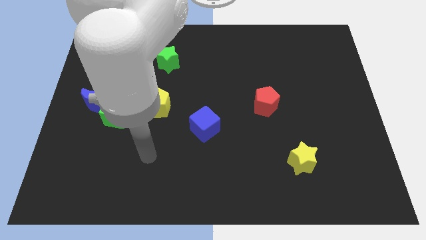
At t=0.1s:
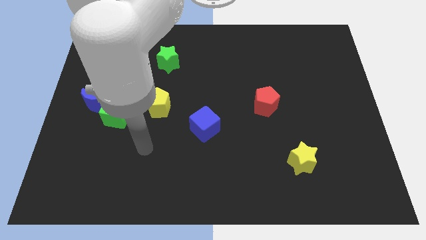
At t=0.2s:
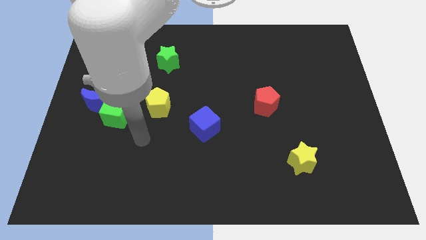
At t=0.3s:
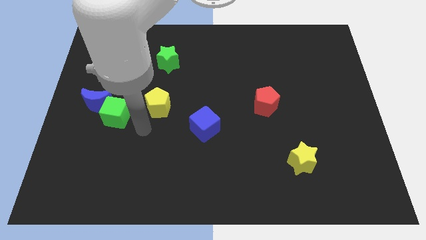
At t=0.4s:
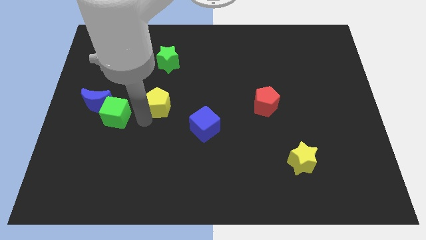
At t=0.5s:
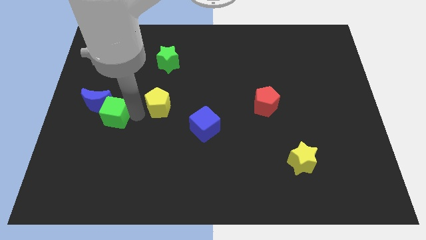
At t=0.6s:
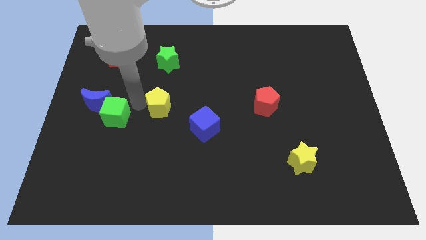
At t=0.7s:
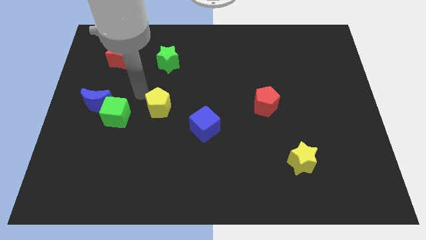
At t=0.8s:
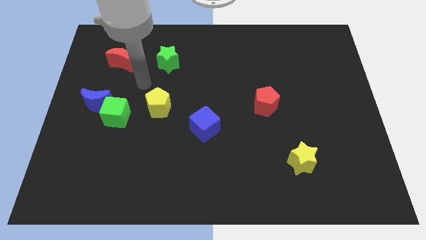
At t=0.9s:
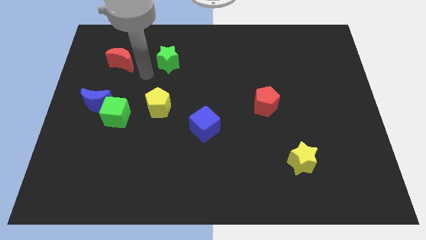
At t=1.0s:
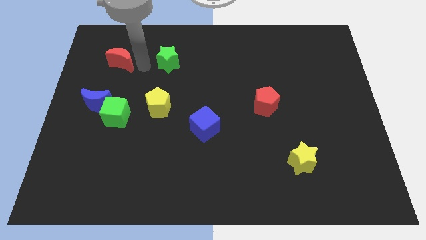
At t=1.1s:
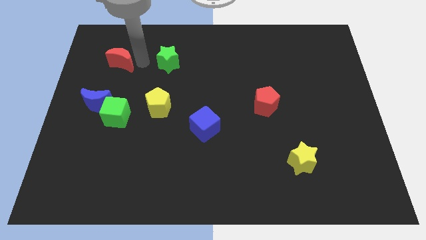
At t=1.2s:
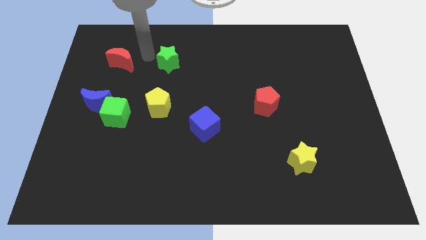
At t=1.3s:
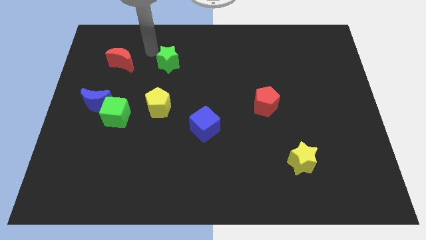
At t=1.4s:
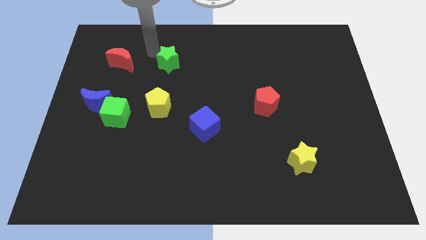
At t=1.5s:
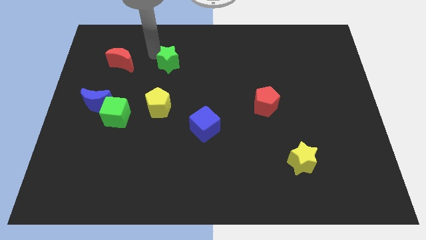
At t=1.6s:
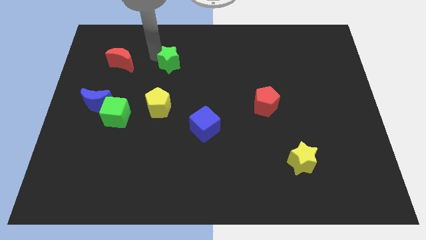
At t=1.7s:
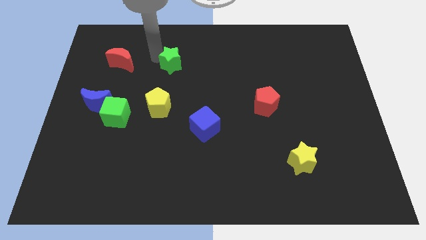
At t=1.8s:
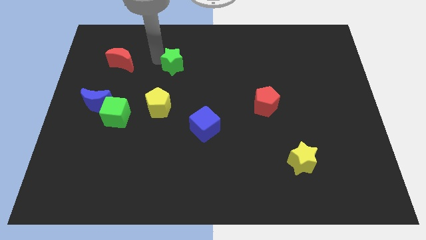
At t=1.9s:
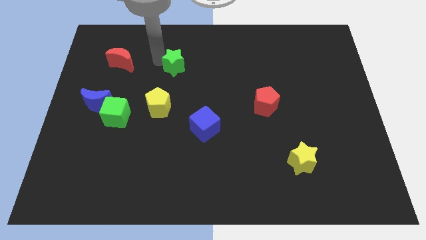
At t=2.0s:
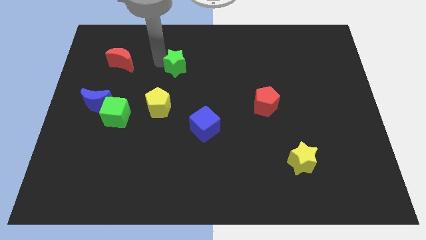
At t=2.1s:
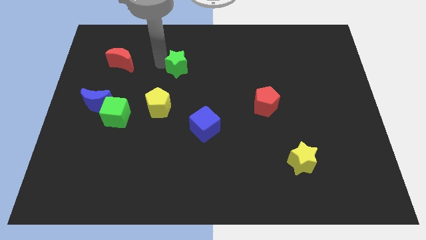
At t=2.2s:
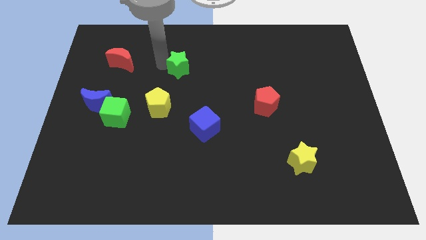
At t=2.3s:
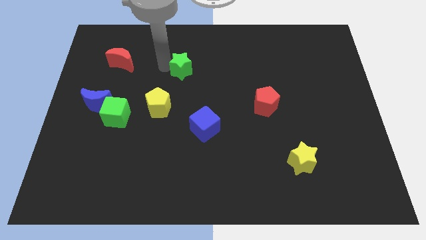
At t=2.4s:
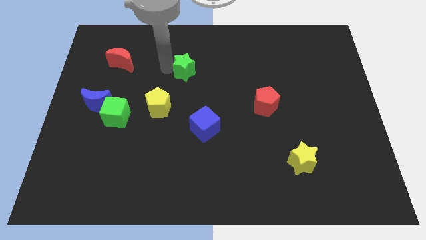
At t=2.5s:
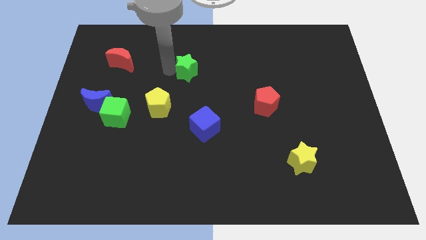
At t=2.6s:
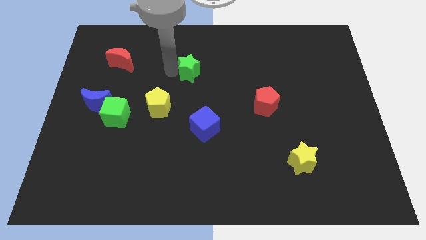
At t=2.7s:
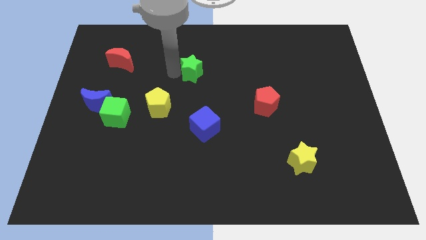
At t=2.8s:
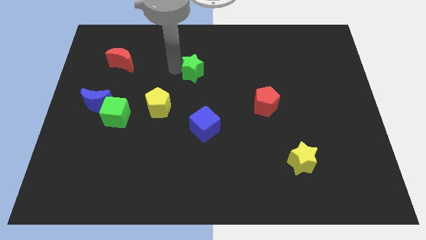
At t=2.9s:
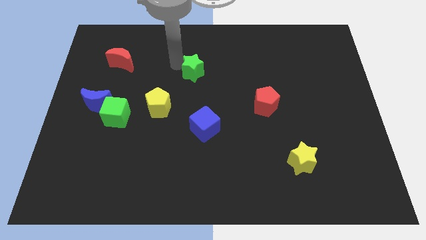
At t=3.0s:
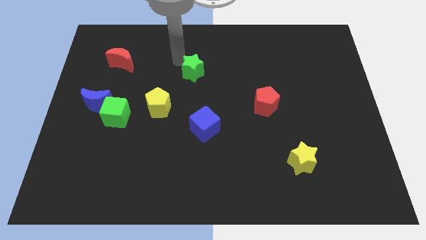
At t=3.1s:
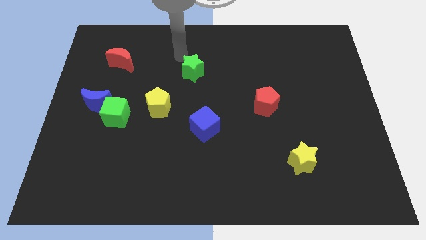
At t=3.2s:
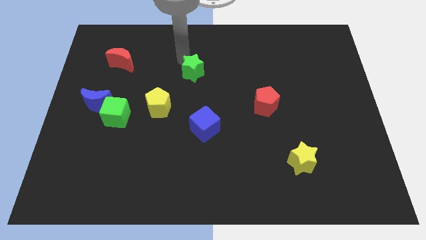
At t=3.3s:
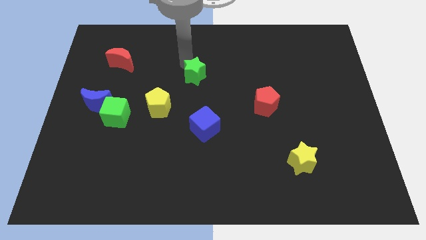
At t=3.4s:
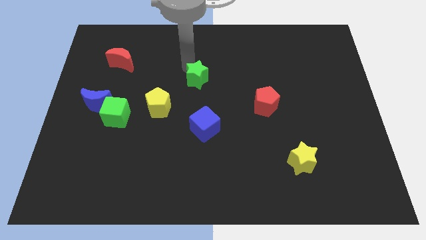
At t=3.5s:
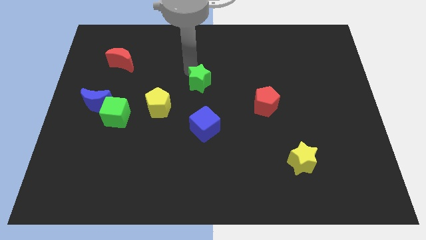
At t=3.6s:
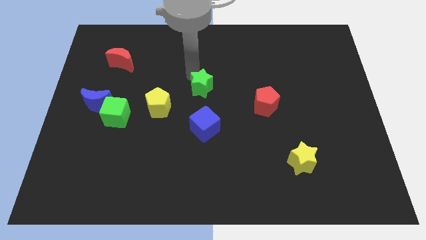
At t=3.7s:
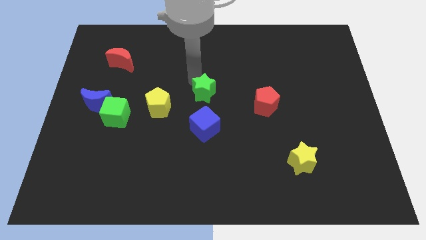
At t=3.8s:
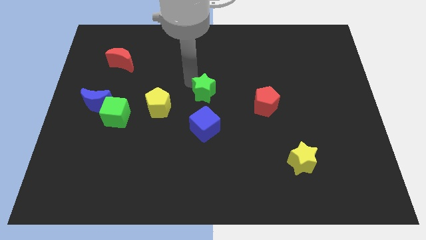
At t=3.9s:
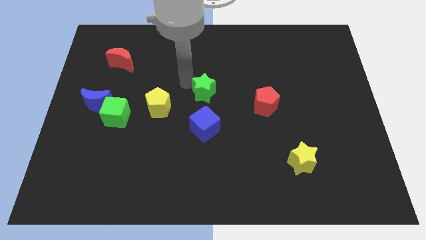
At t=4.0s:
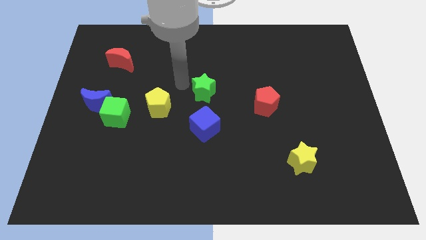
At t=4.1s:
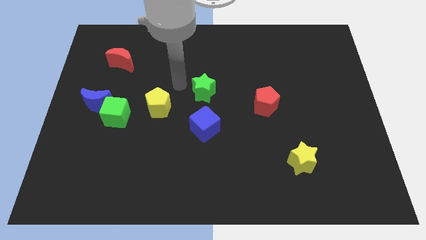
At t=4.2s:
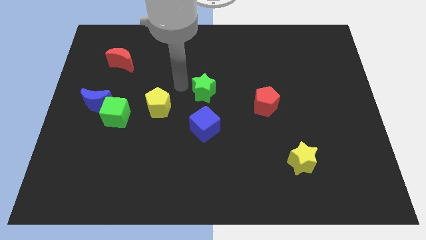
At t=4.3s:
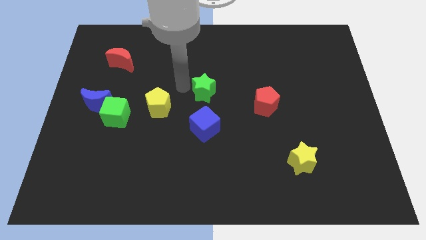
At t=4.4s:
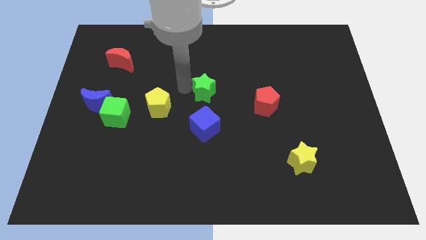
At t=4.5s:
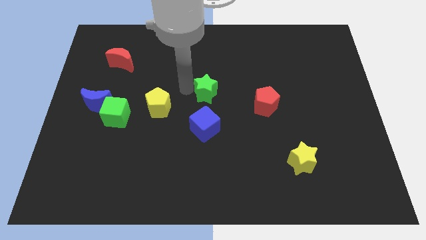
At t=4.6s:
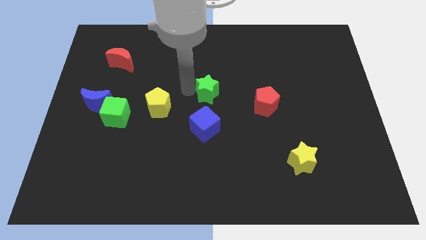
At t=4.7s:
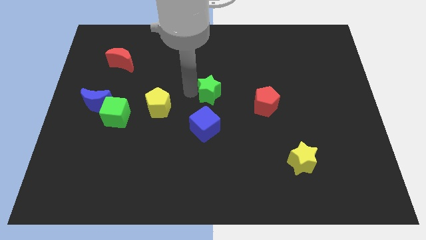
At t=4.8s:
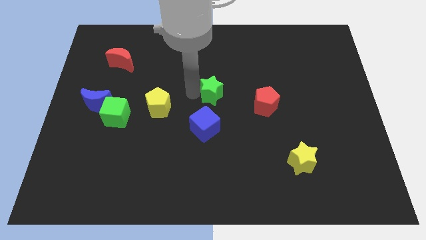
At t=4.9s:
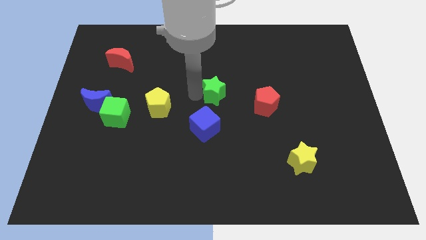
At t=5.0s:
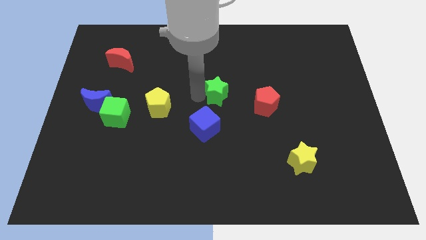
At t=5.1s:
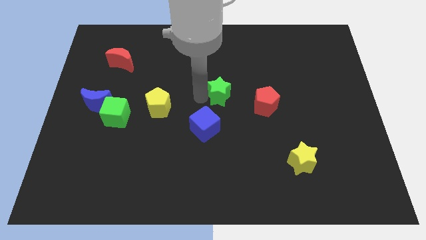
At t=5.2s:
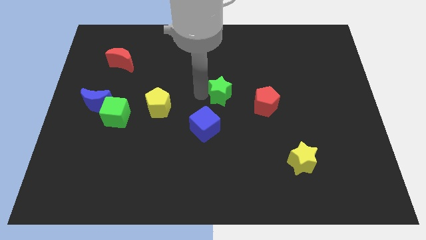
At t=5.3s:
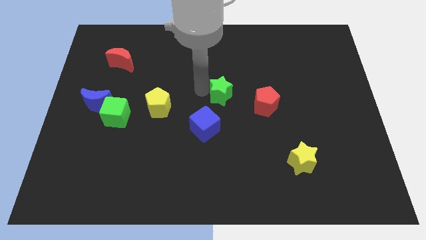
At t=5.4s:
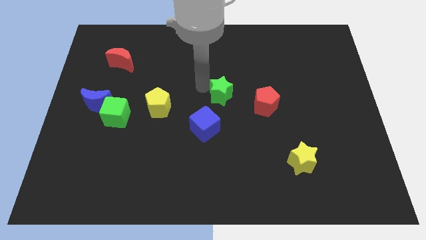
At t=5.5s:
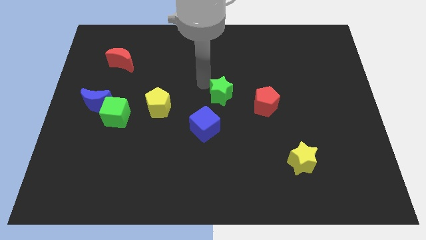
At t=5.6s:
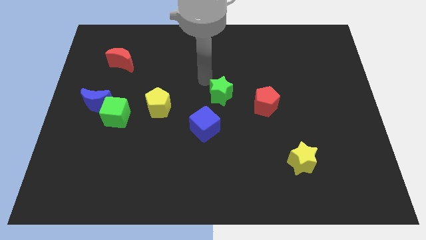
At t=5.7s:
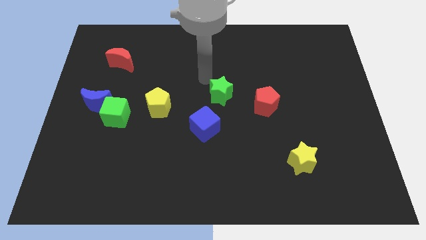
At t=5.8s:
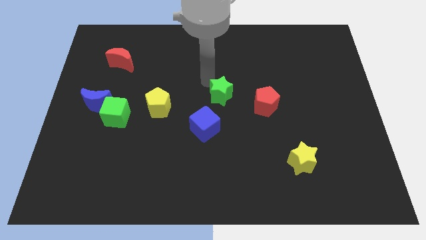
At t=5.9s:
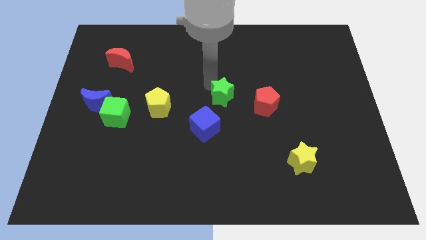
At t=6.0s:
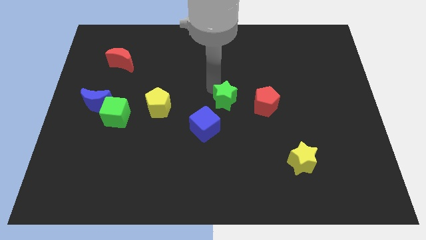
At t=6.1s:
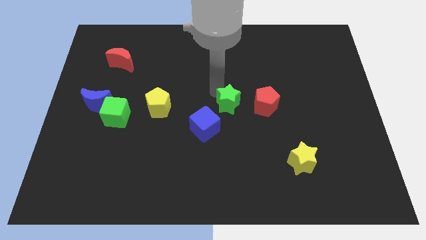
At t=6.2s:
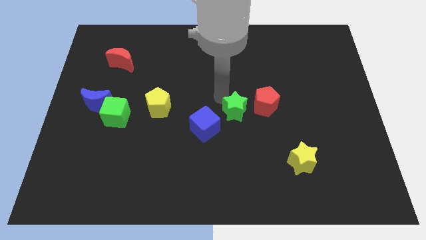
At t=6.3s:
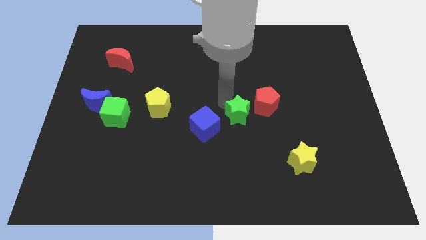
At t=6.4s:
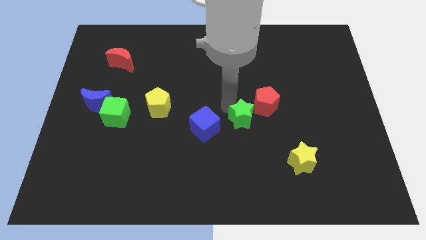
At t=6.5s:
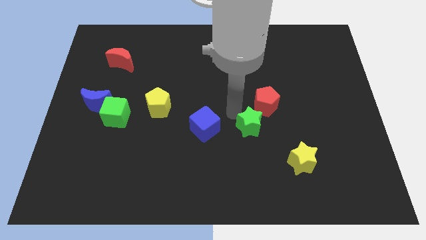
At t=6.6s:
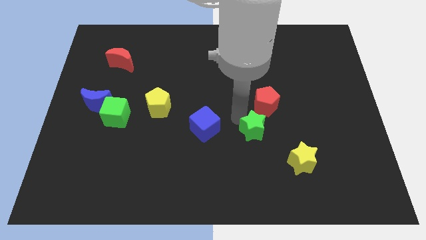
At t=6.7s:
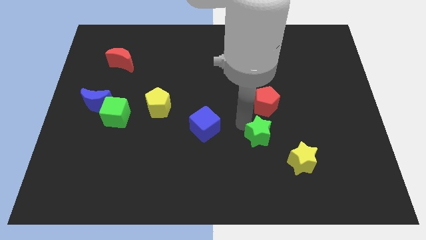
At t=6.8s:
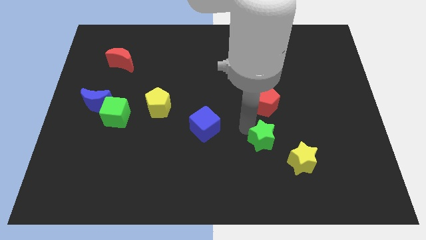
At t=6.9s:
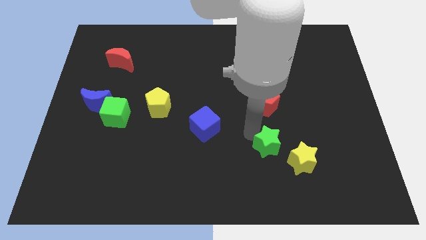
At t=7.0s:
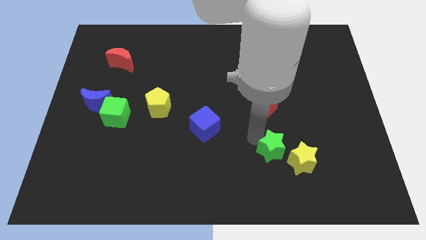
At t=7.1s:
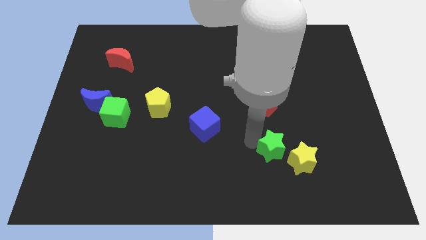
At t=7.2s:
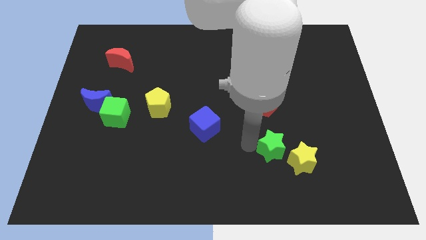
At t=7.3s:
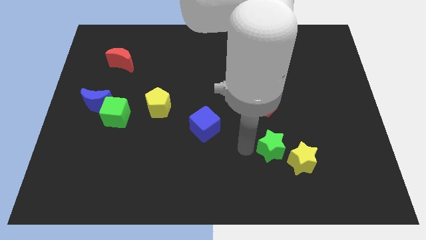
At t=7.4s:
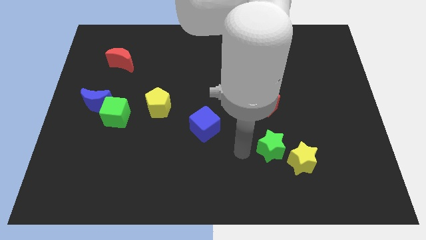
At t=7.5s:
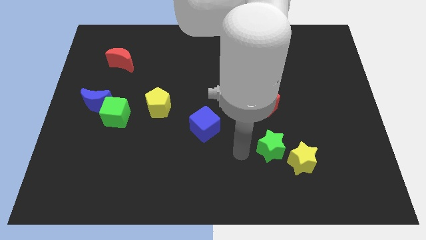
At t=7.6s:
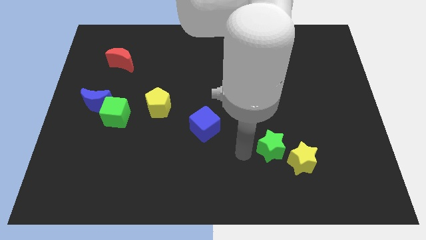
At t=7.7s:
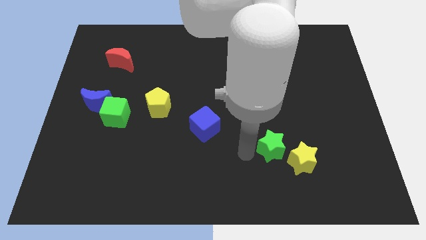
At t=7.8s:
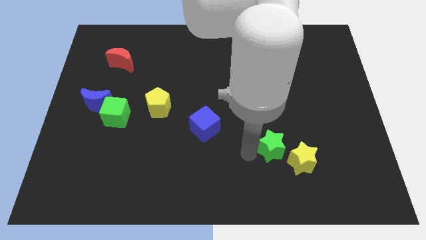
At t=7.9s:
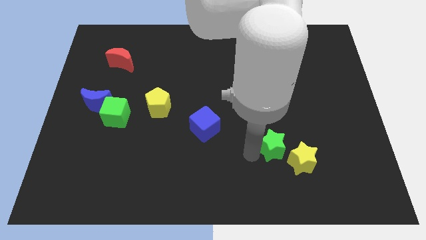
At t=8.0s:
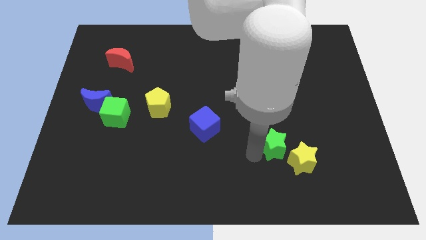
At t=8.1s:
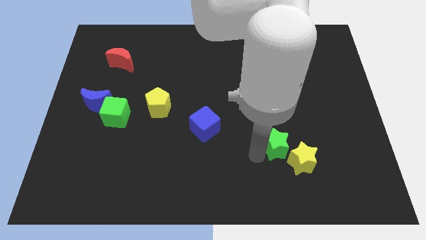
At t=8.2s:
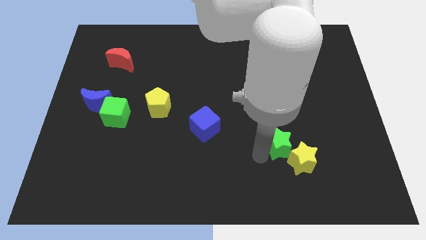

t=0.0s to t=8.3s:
move the green star to the yellow star
